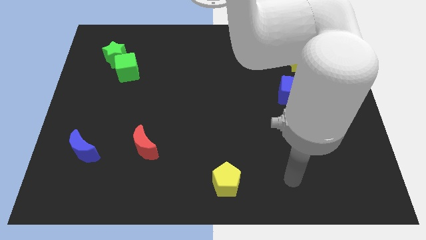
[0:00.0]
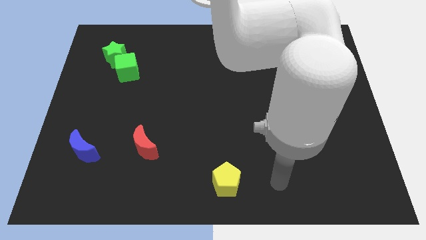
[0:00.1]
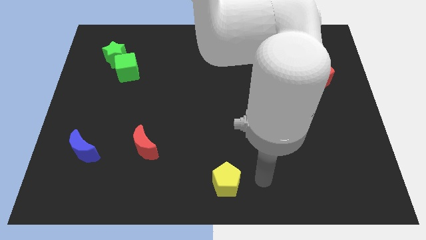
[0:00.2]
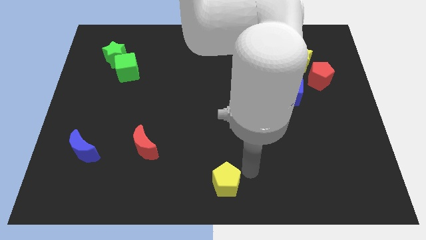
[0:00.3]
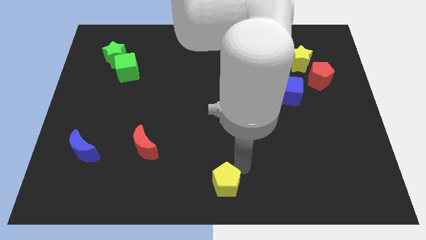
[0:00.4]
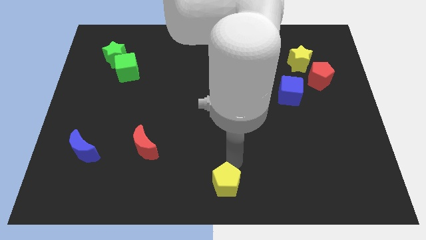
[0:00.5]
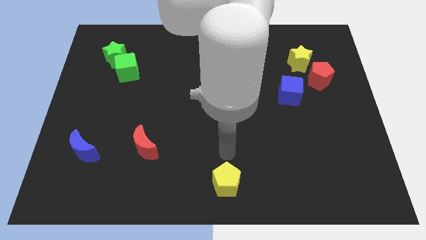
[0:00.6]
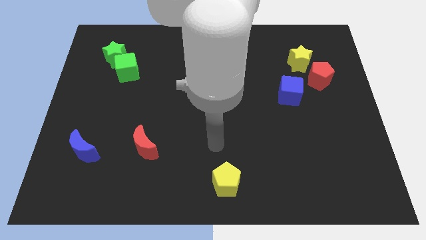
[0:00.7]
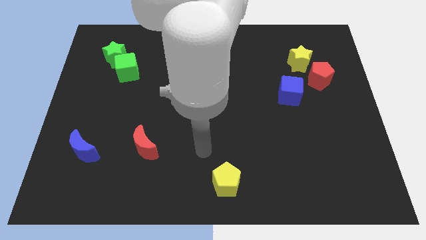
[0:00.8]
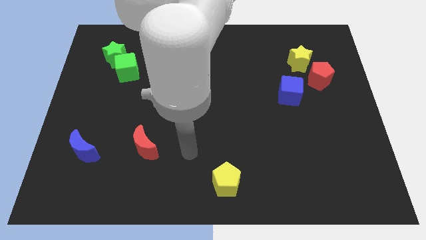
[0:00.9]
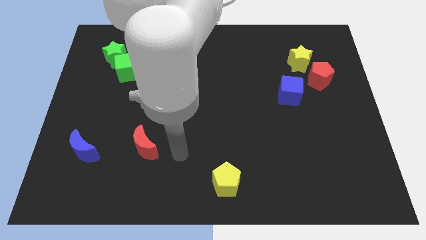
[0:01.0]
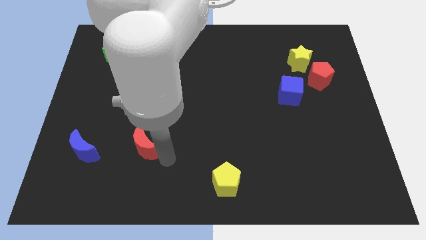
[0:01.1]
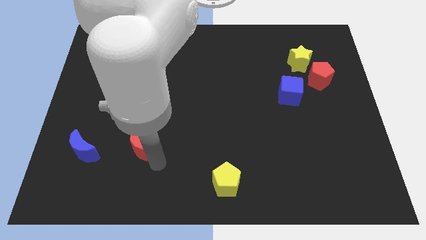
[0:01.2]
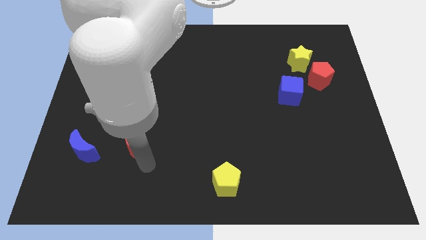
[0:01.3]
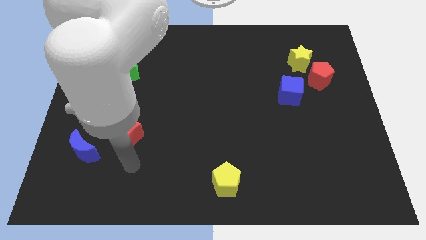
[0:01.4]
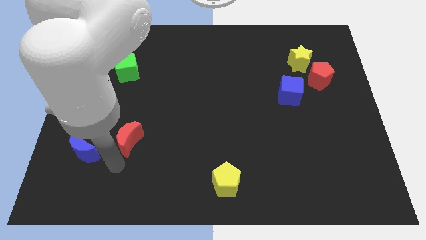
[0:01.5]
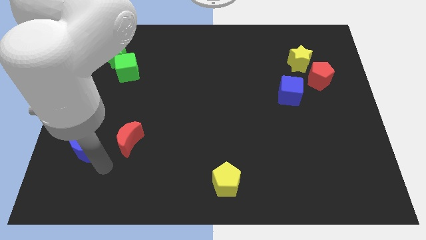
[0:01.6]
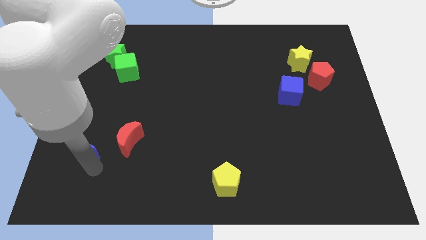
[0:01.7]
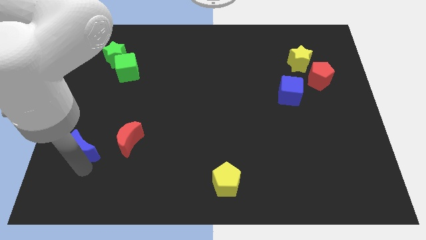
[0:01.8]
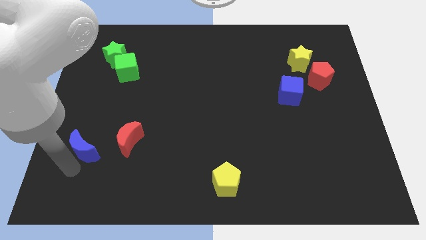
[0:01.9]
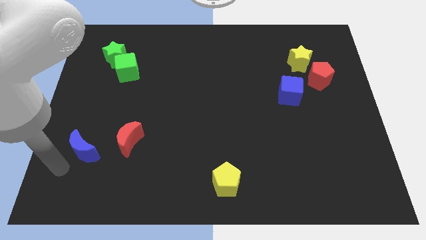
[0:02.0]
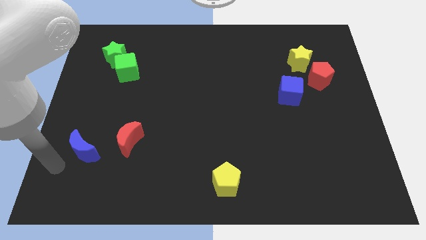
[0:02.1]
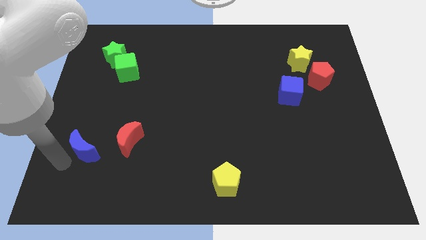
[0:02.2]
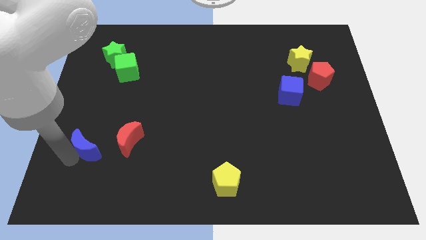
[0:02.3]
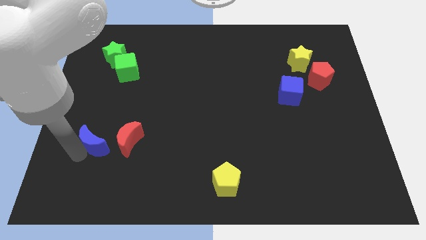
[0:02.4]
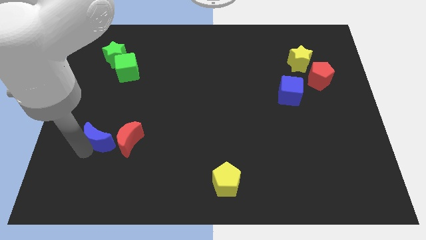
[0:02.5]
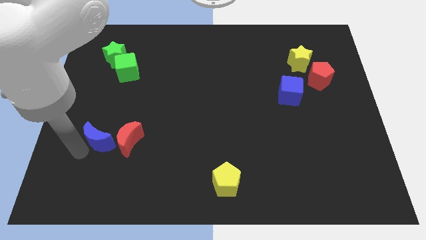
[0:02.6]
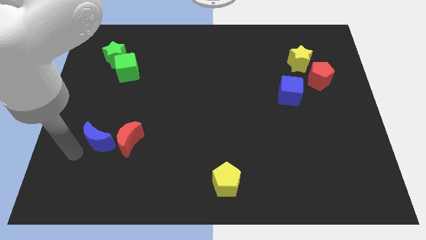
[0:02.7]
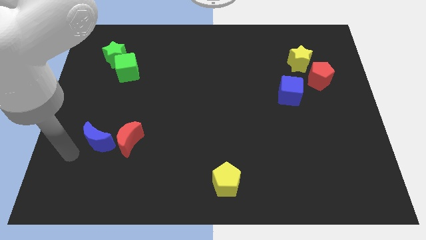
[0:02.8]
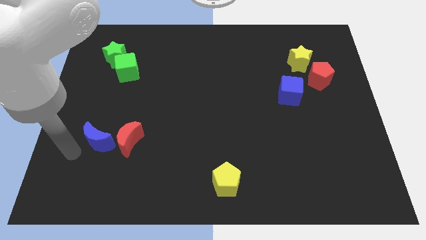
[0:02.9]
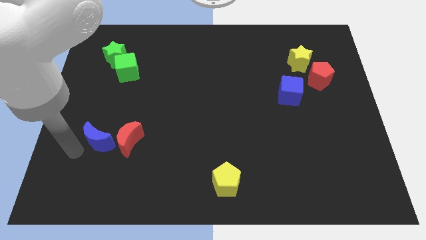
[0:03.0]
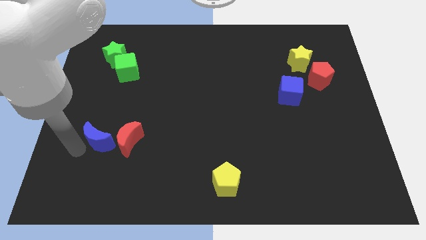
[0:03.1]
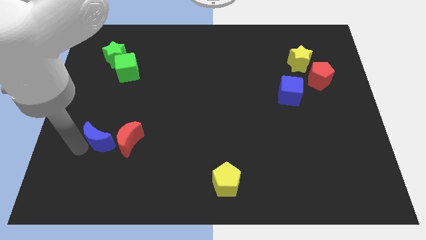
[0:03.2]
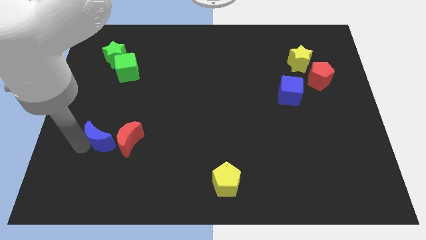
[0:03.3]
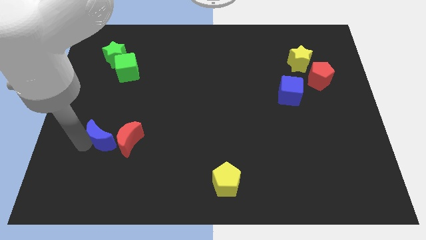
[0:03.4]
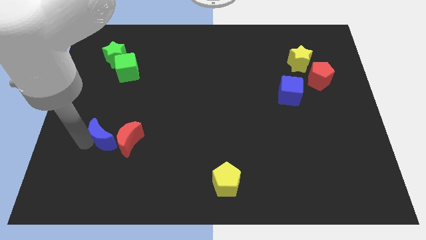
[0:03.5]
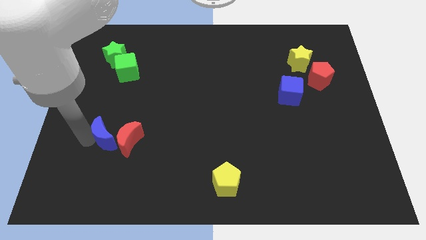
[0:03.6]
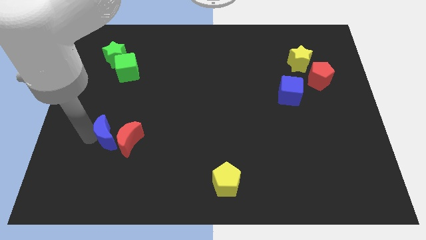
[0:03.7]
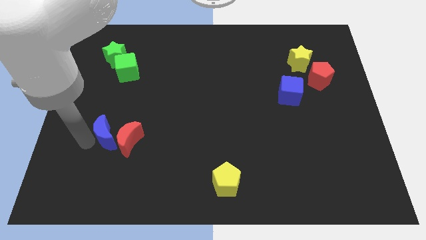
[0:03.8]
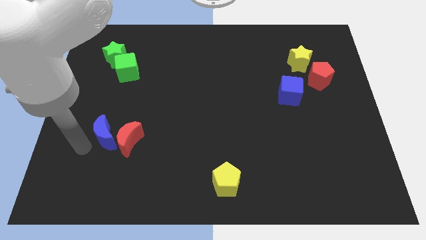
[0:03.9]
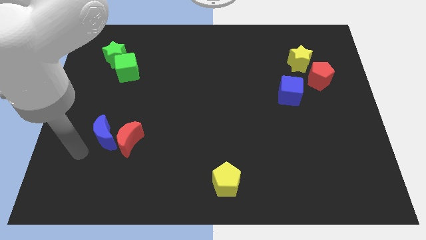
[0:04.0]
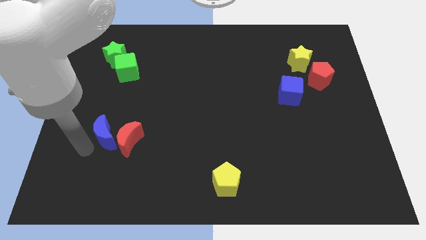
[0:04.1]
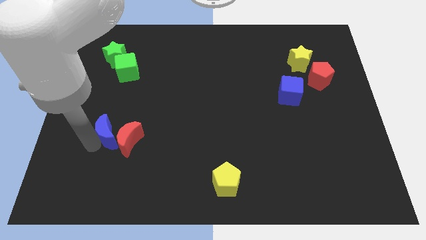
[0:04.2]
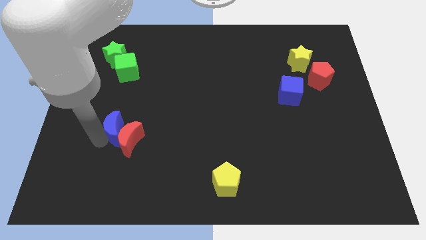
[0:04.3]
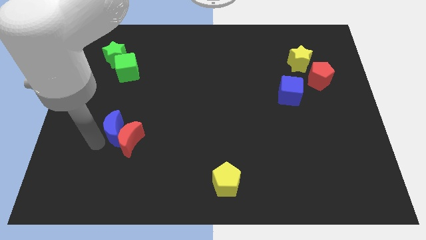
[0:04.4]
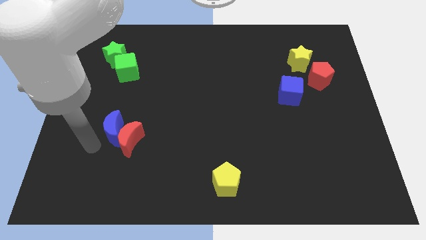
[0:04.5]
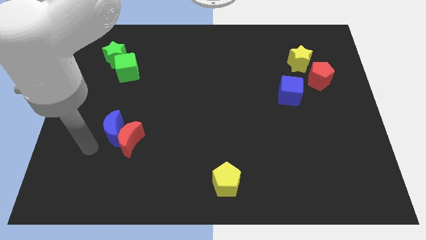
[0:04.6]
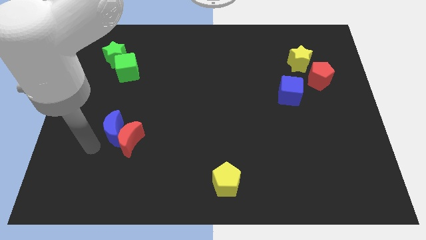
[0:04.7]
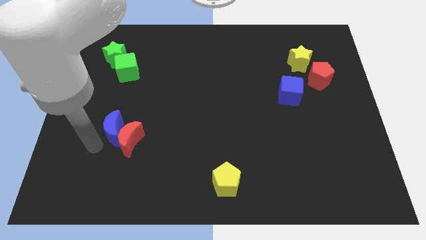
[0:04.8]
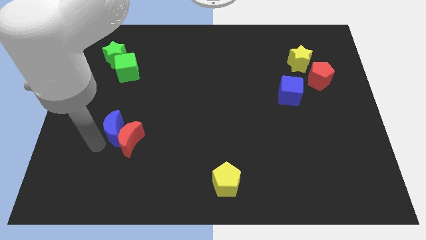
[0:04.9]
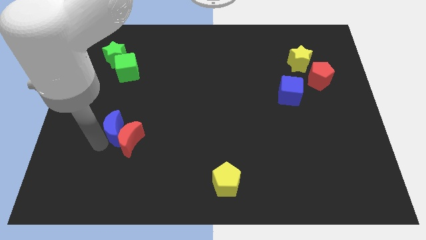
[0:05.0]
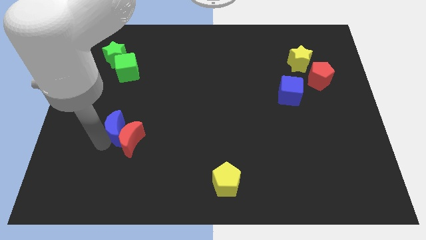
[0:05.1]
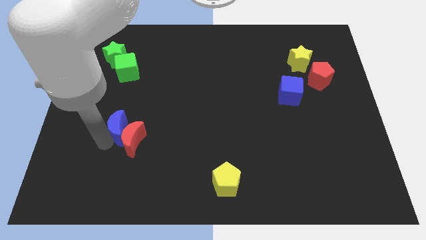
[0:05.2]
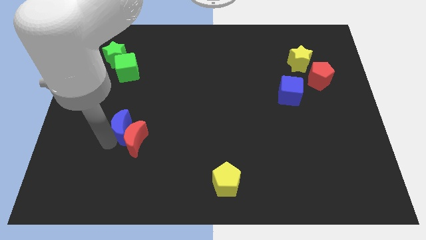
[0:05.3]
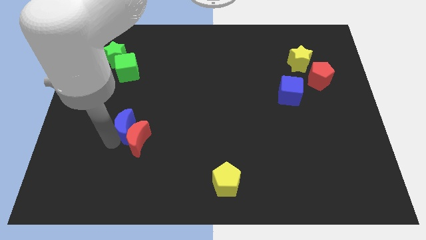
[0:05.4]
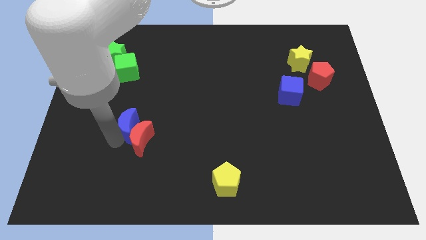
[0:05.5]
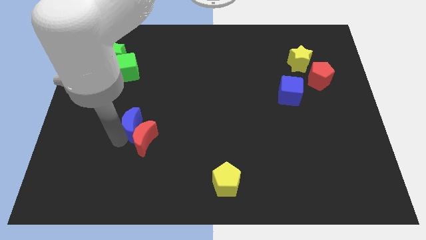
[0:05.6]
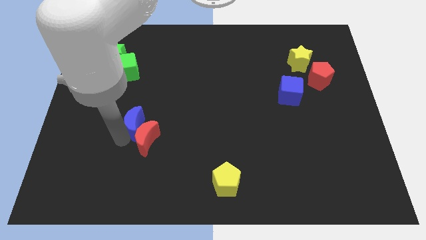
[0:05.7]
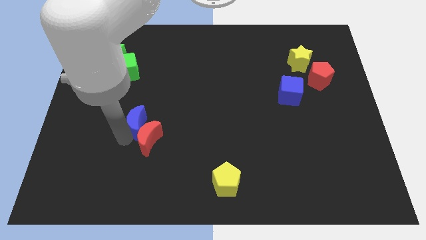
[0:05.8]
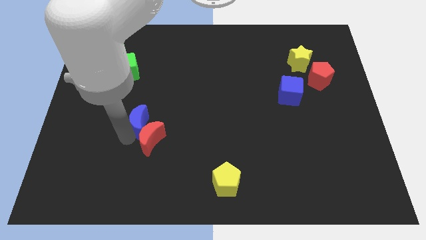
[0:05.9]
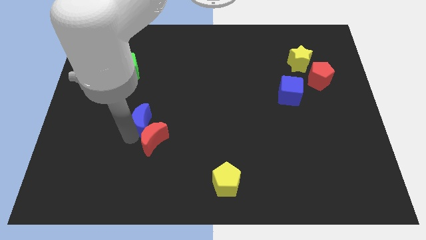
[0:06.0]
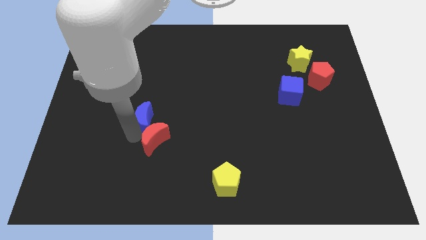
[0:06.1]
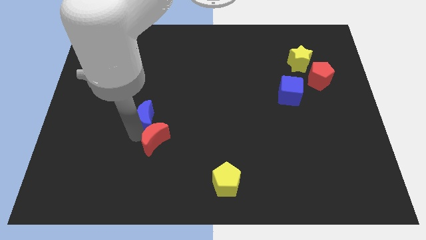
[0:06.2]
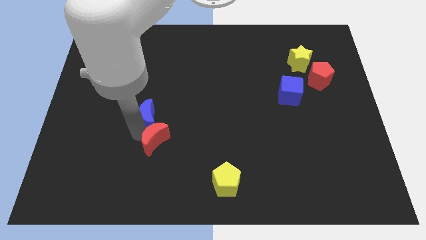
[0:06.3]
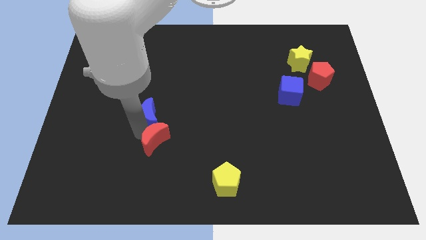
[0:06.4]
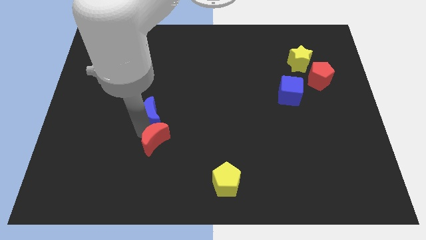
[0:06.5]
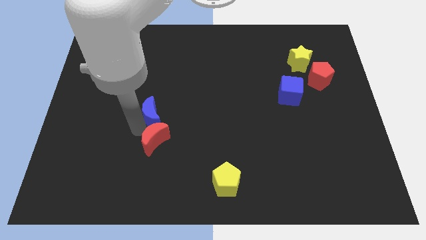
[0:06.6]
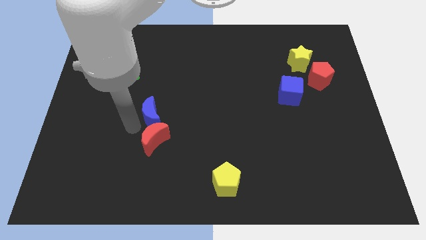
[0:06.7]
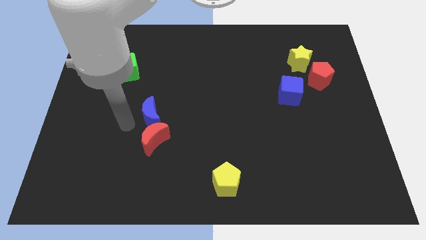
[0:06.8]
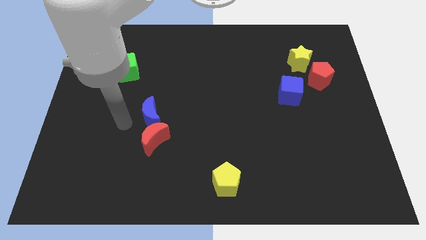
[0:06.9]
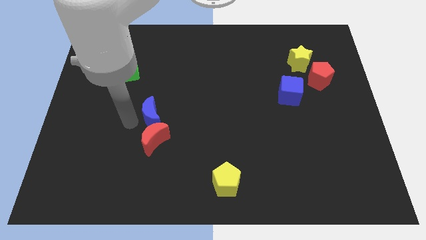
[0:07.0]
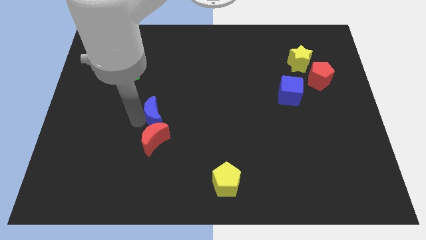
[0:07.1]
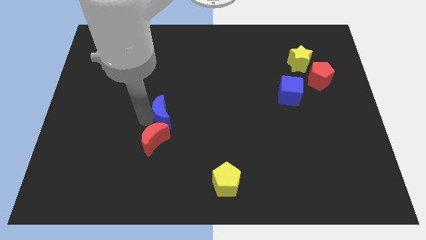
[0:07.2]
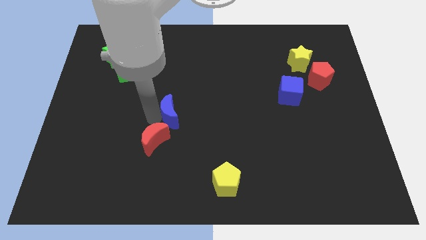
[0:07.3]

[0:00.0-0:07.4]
push the blue moon to the middle of the board
